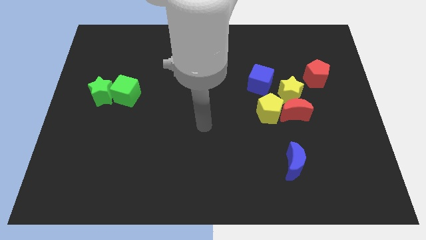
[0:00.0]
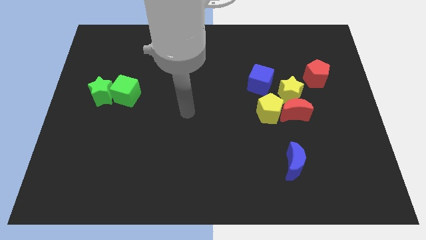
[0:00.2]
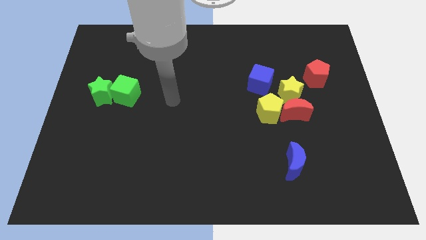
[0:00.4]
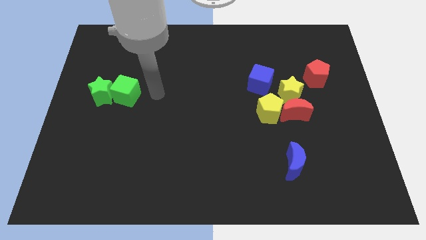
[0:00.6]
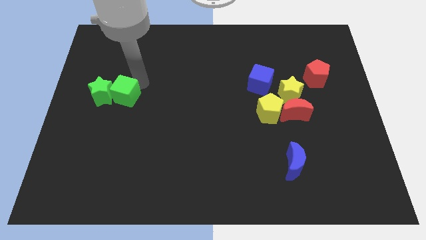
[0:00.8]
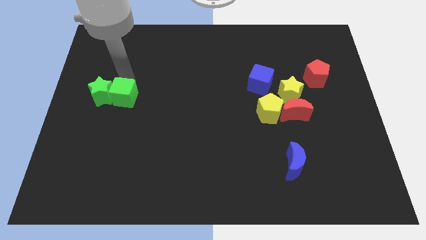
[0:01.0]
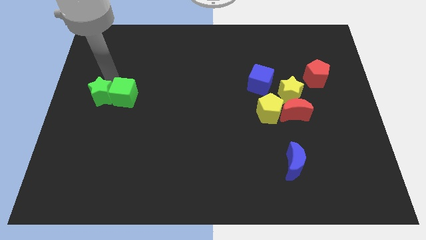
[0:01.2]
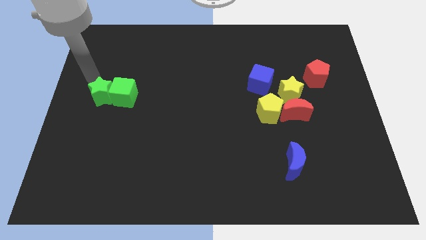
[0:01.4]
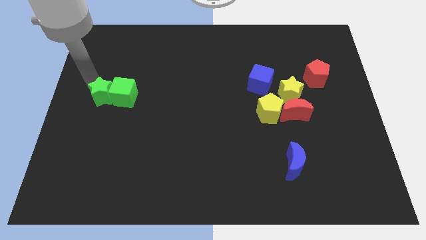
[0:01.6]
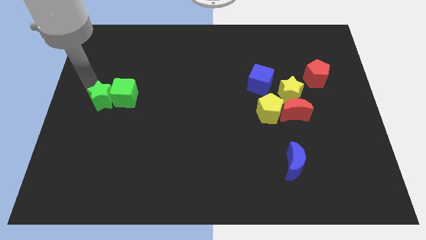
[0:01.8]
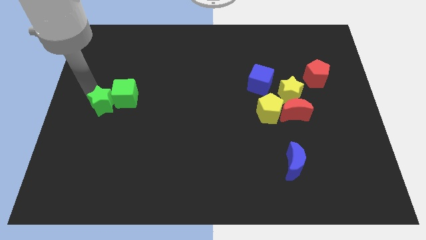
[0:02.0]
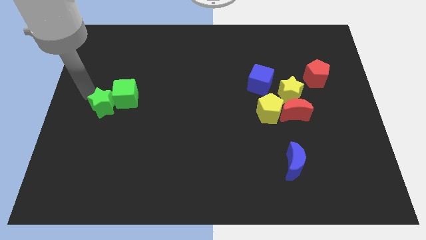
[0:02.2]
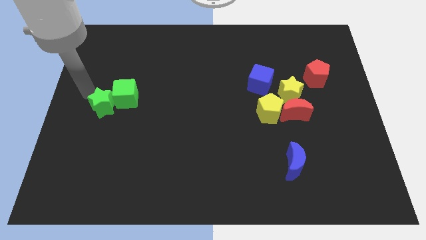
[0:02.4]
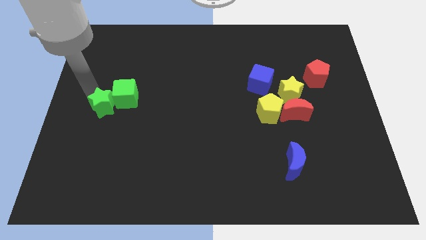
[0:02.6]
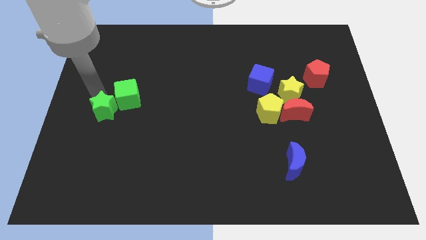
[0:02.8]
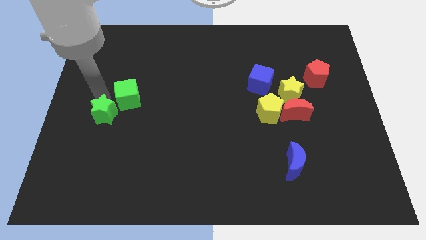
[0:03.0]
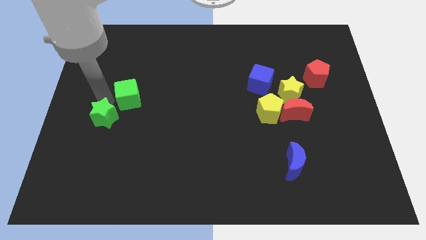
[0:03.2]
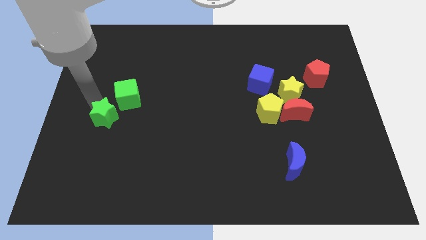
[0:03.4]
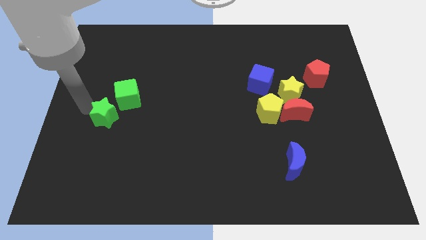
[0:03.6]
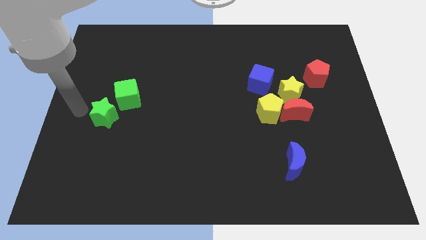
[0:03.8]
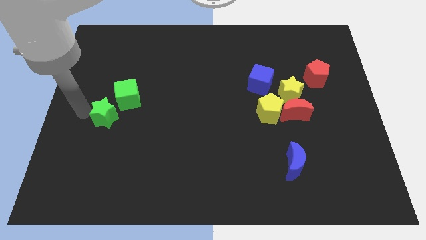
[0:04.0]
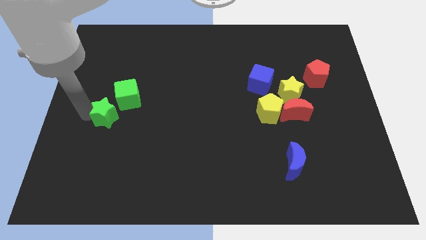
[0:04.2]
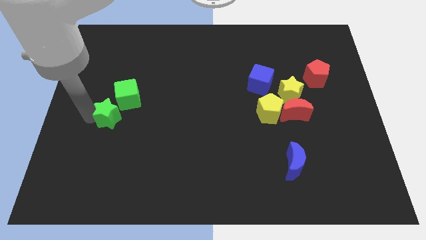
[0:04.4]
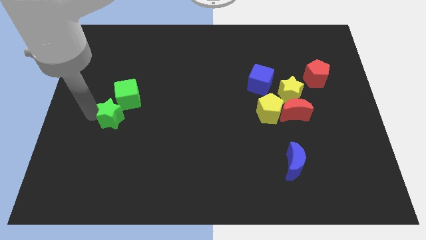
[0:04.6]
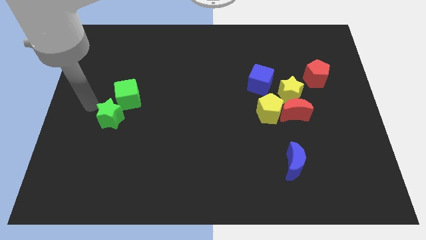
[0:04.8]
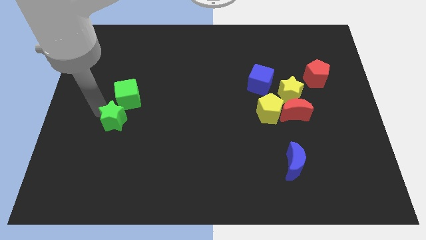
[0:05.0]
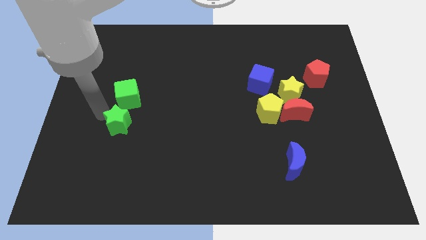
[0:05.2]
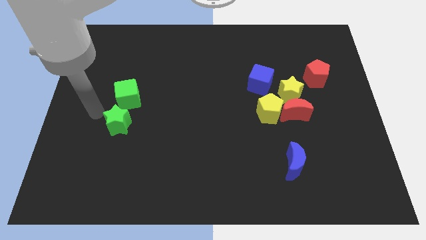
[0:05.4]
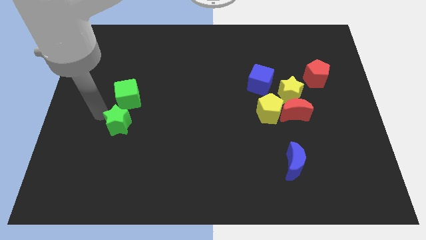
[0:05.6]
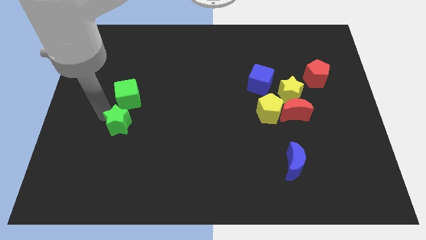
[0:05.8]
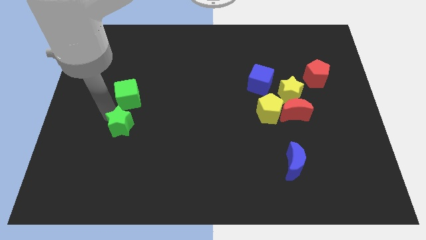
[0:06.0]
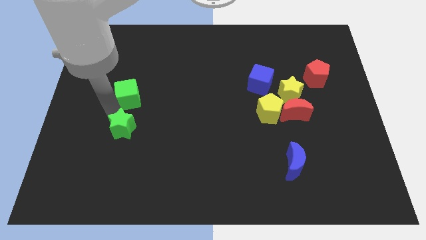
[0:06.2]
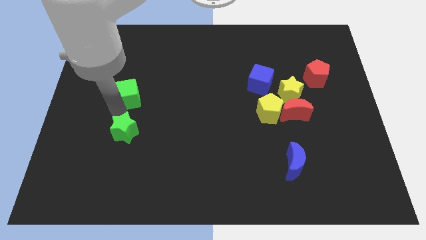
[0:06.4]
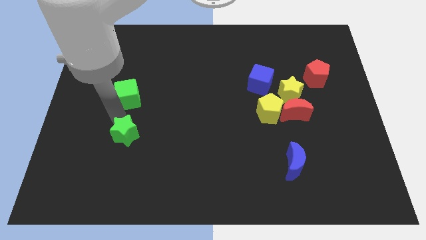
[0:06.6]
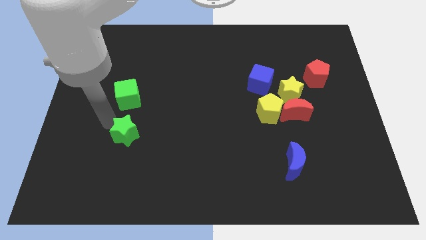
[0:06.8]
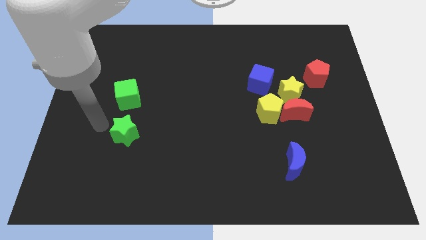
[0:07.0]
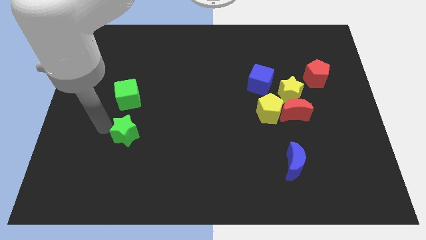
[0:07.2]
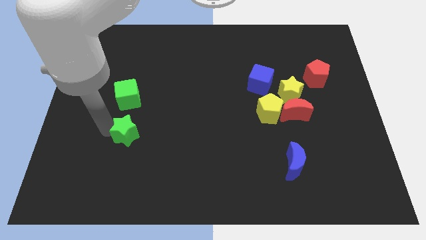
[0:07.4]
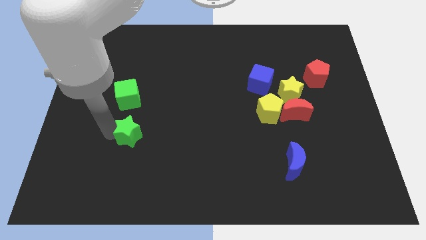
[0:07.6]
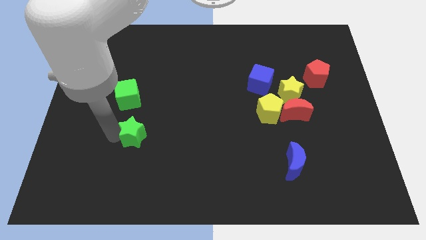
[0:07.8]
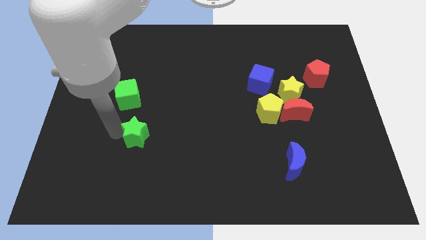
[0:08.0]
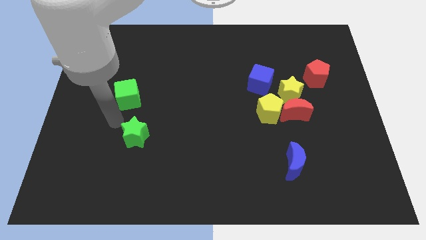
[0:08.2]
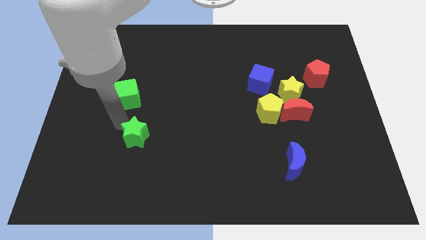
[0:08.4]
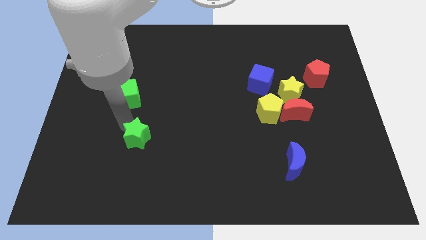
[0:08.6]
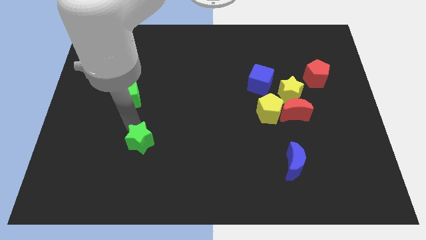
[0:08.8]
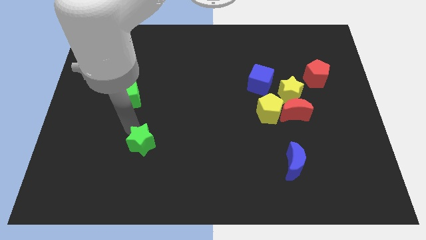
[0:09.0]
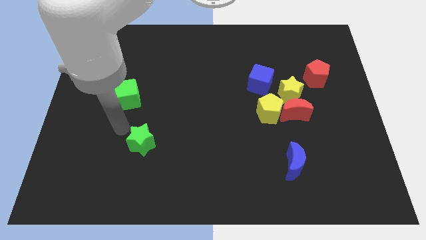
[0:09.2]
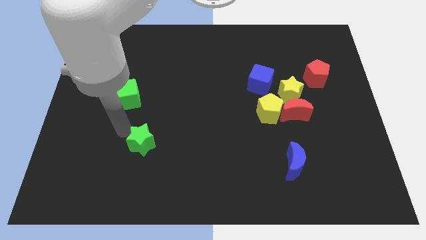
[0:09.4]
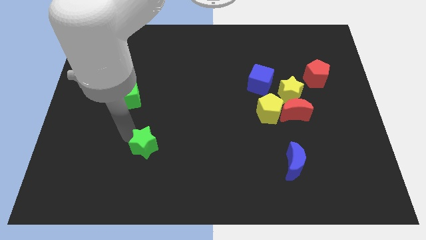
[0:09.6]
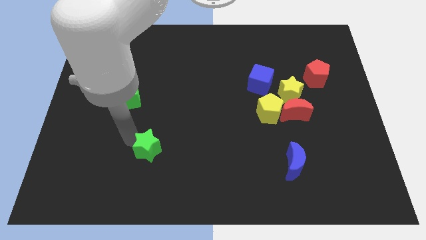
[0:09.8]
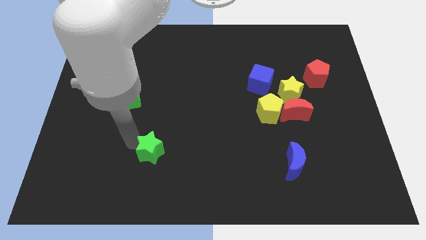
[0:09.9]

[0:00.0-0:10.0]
push the green star down and right diagonally

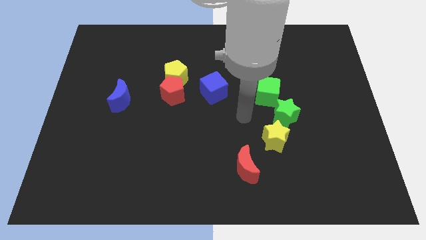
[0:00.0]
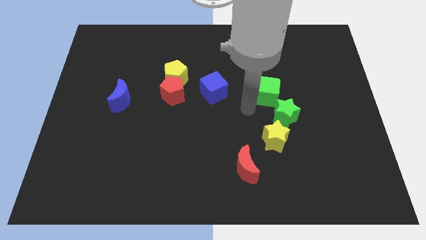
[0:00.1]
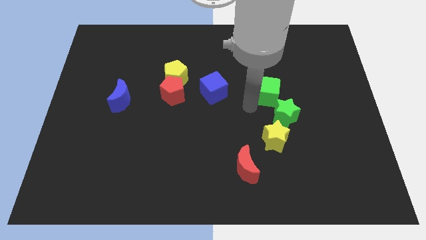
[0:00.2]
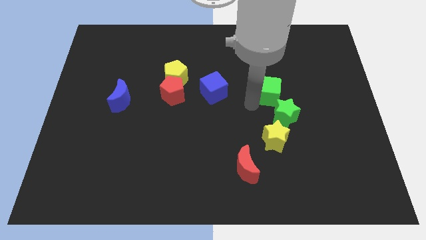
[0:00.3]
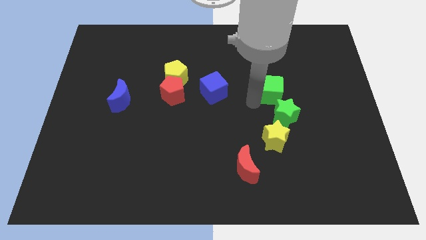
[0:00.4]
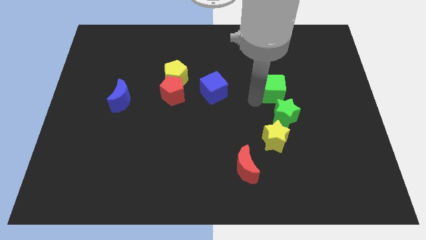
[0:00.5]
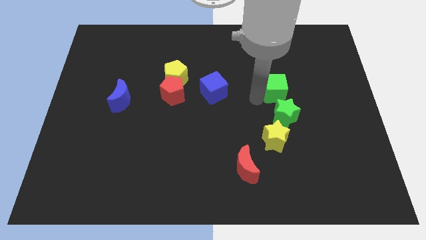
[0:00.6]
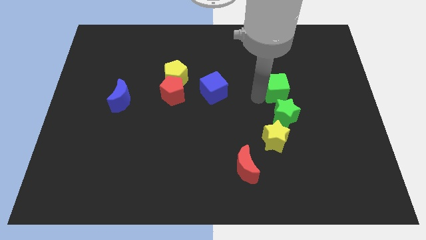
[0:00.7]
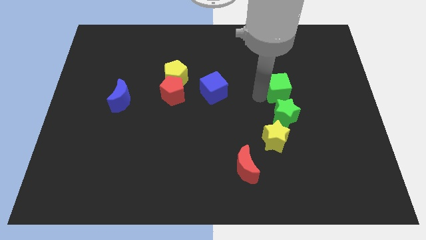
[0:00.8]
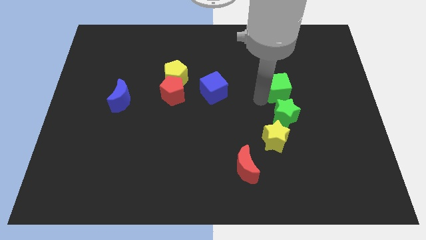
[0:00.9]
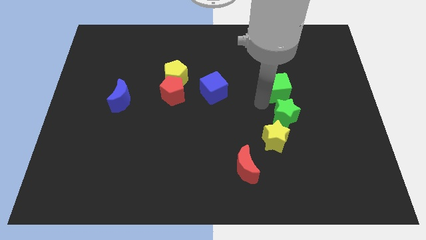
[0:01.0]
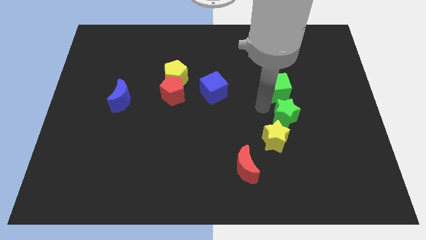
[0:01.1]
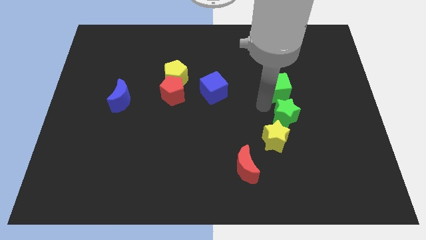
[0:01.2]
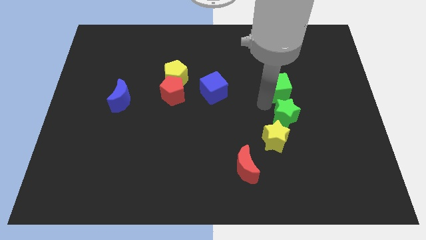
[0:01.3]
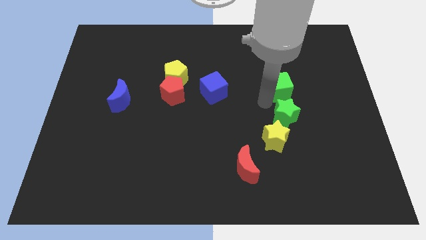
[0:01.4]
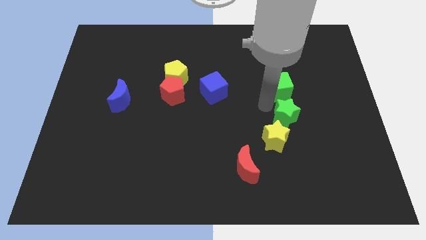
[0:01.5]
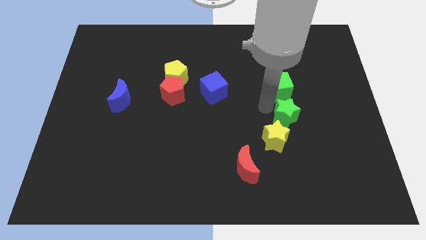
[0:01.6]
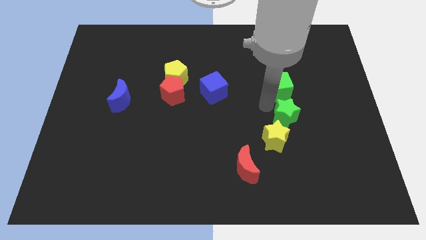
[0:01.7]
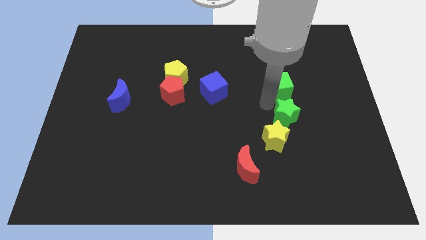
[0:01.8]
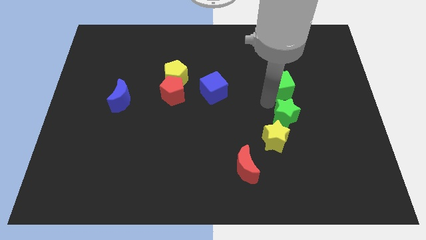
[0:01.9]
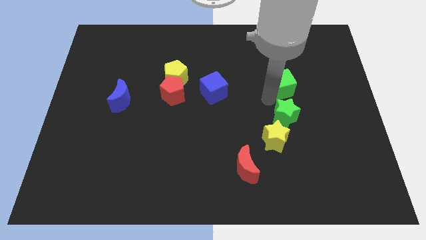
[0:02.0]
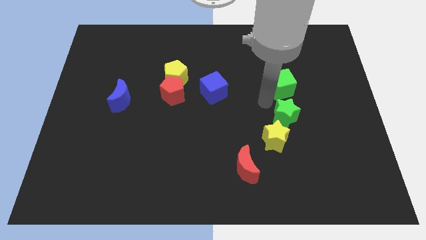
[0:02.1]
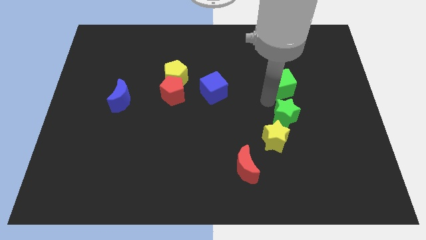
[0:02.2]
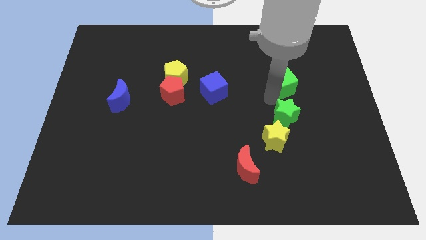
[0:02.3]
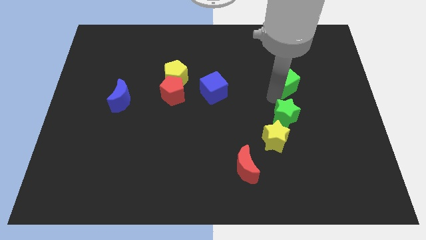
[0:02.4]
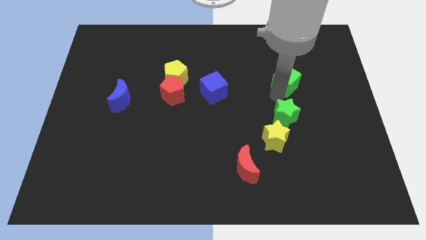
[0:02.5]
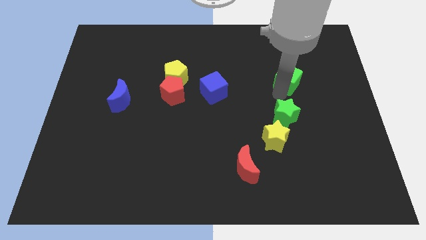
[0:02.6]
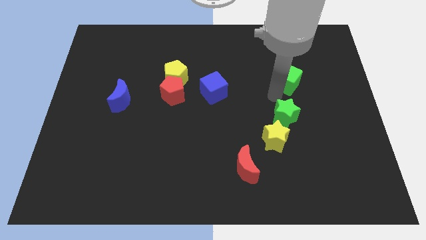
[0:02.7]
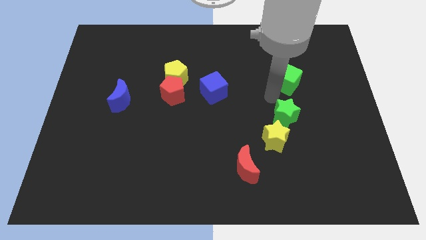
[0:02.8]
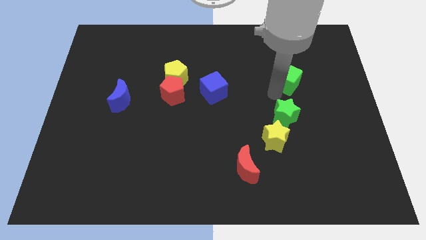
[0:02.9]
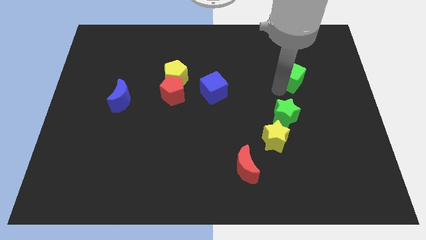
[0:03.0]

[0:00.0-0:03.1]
move the green cube slightly up and right diagonally
